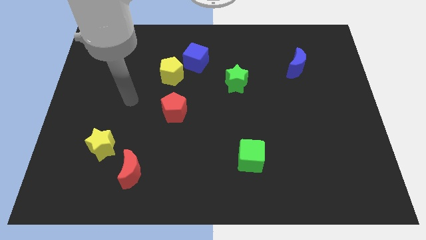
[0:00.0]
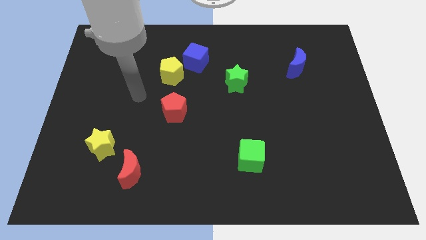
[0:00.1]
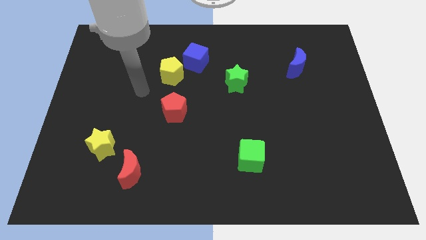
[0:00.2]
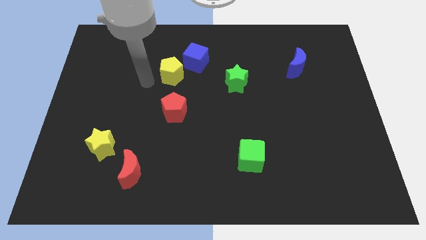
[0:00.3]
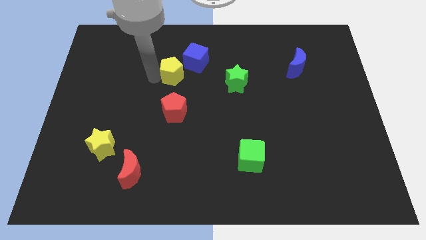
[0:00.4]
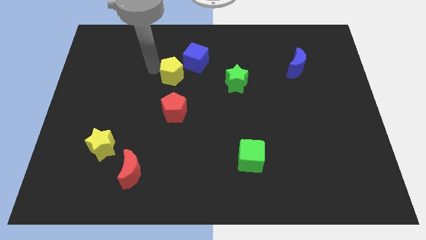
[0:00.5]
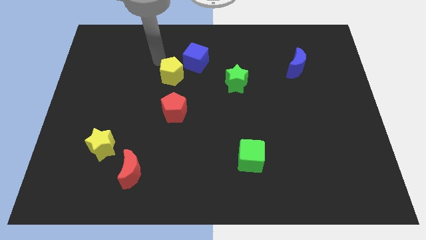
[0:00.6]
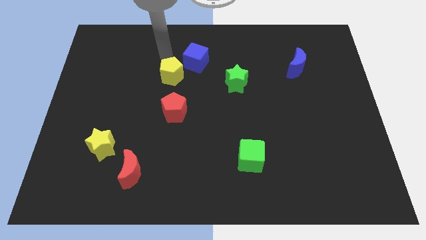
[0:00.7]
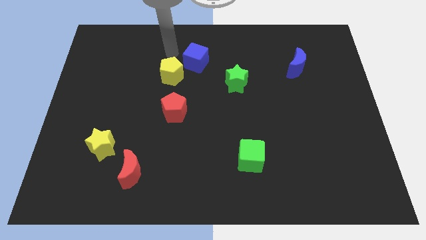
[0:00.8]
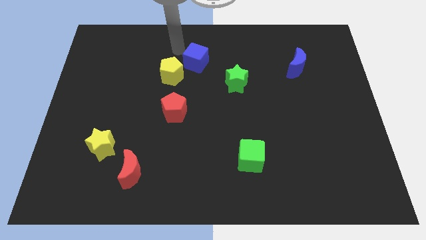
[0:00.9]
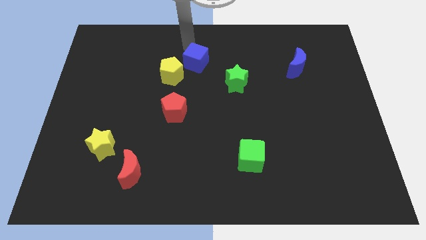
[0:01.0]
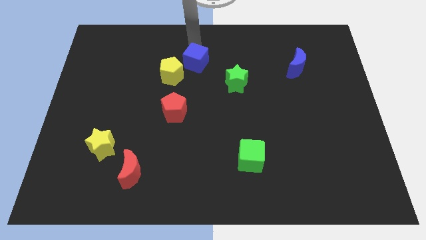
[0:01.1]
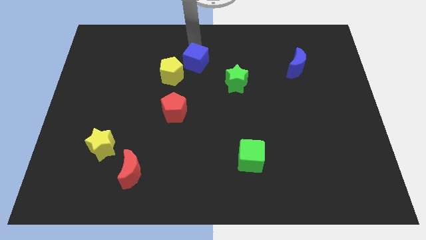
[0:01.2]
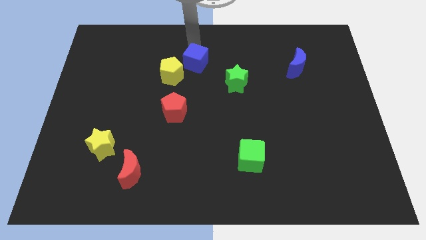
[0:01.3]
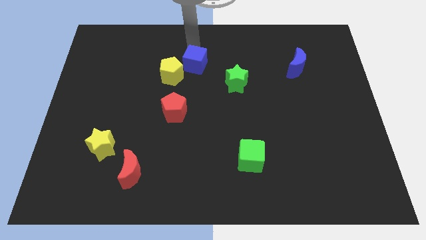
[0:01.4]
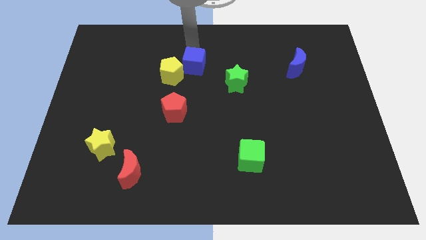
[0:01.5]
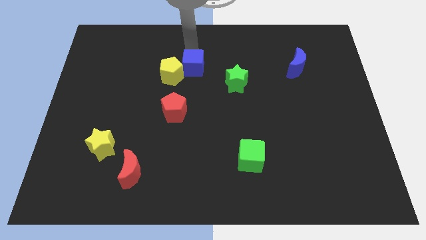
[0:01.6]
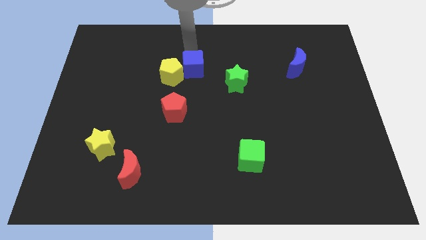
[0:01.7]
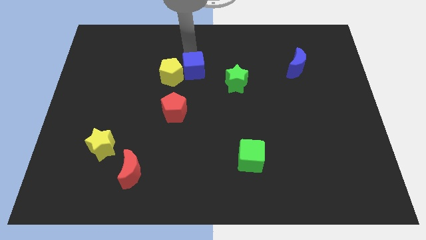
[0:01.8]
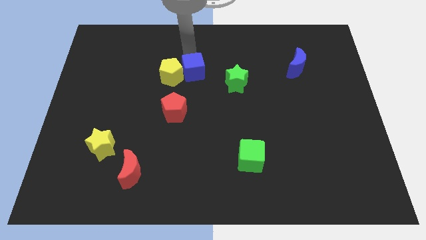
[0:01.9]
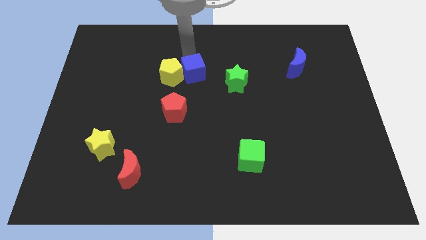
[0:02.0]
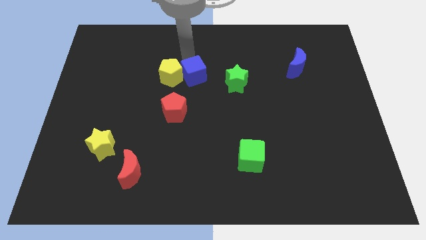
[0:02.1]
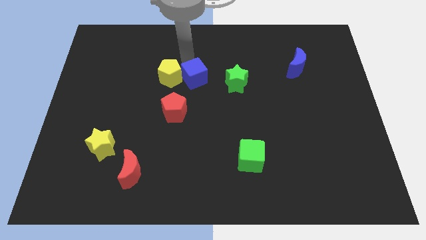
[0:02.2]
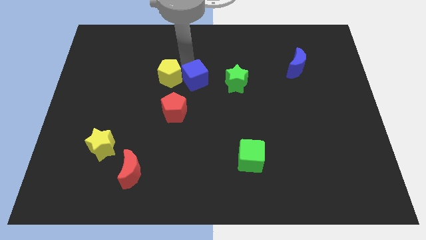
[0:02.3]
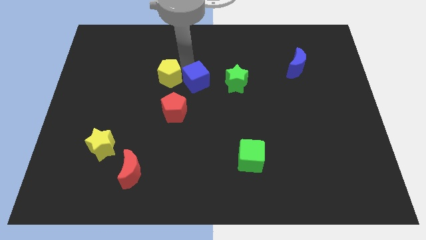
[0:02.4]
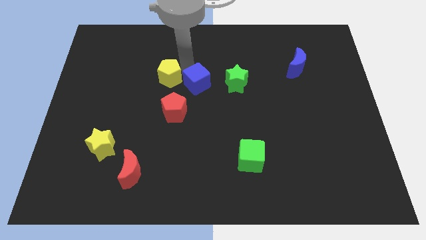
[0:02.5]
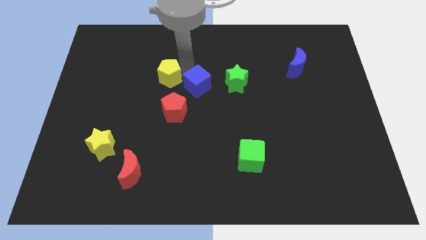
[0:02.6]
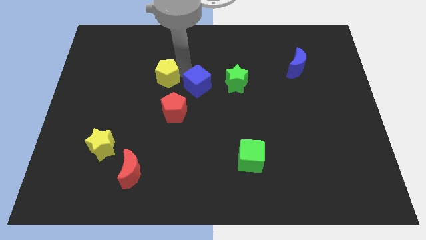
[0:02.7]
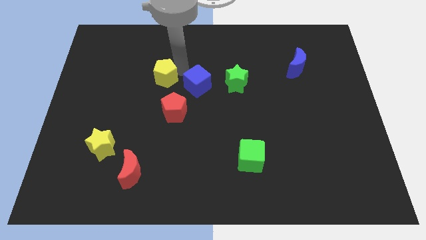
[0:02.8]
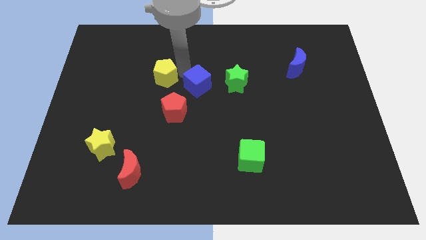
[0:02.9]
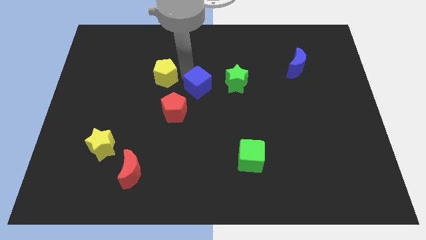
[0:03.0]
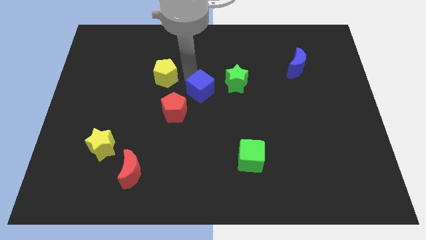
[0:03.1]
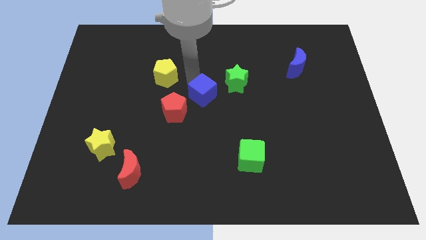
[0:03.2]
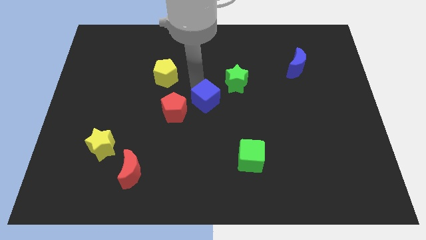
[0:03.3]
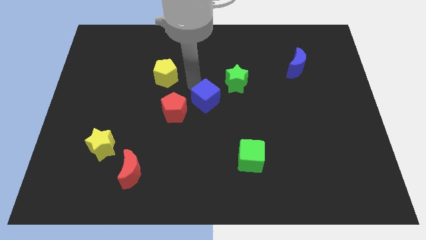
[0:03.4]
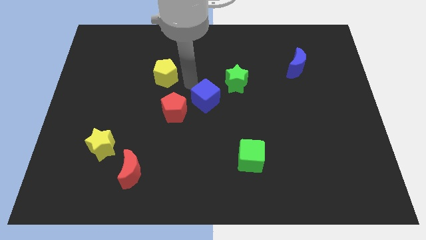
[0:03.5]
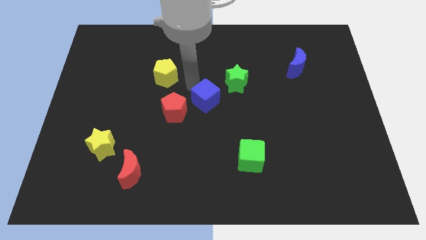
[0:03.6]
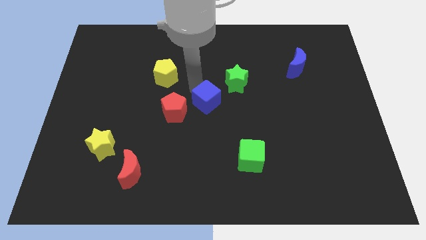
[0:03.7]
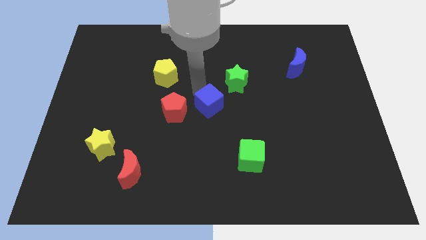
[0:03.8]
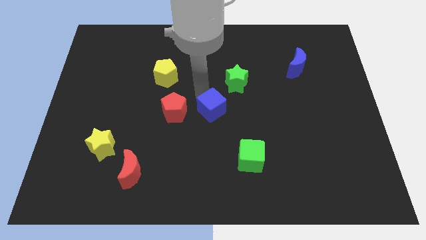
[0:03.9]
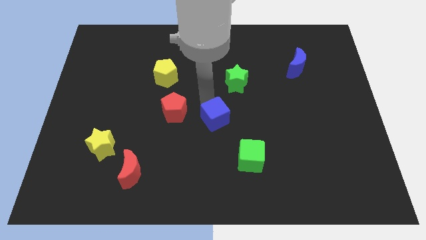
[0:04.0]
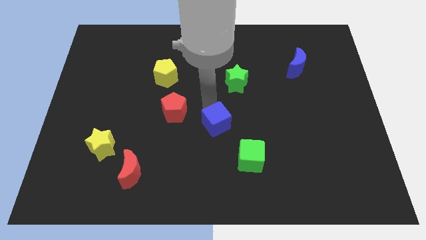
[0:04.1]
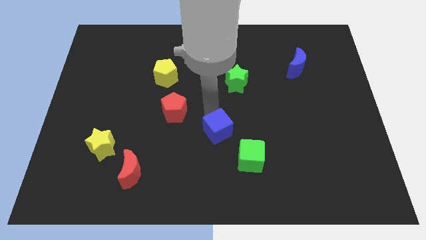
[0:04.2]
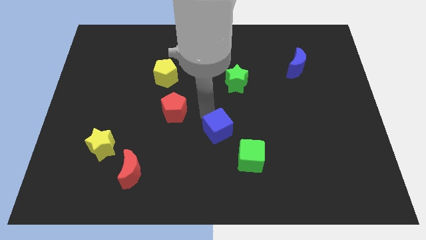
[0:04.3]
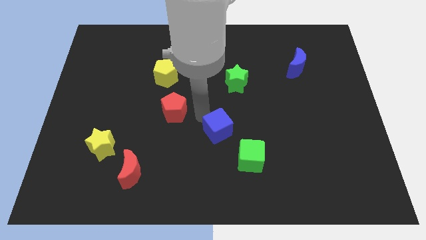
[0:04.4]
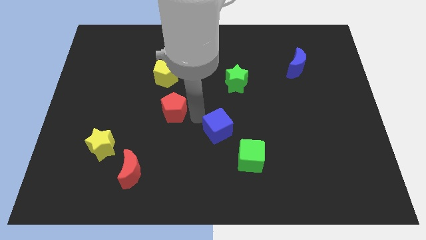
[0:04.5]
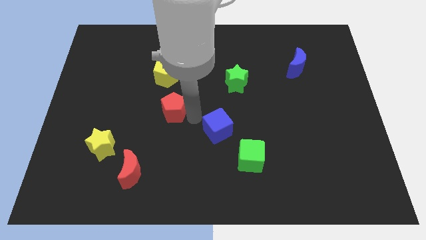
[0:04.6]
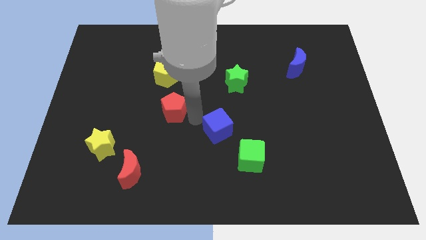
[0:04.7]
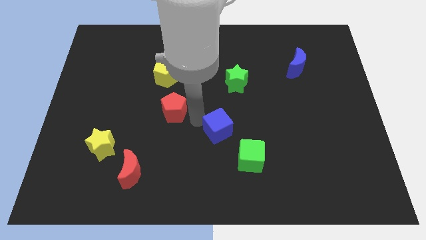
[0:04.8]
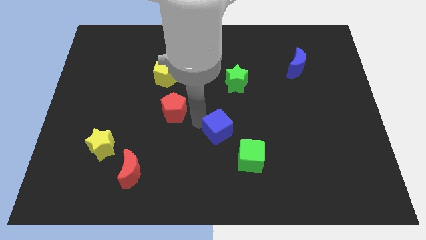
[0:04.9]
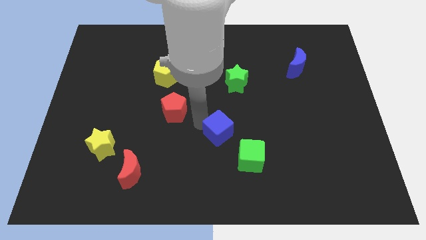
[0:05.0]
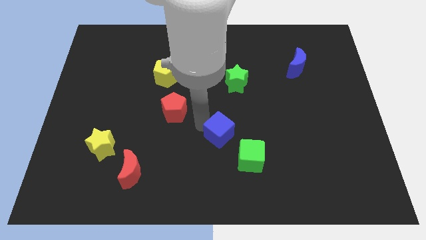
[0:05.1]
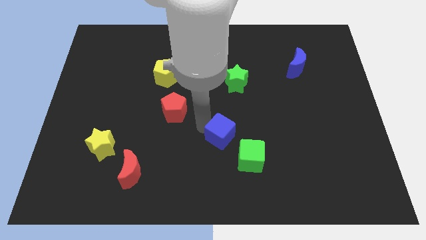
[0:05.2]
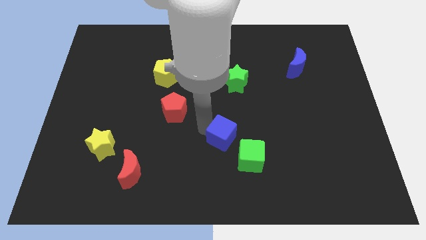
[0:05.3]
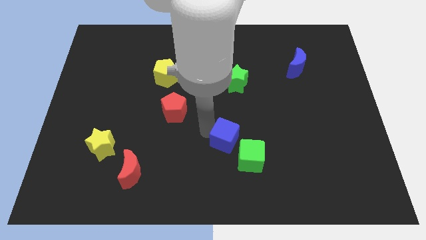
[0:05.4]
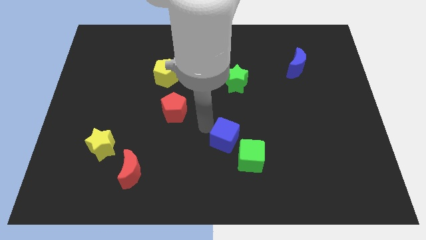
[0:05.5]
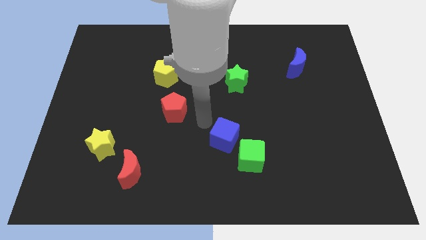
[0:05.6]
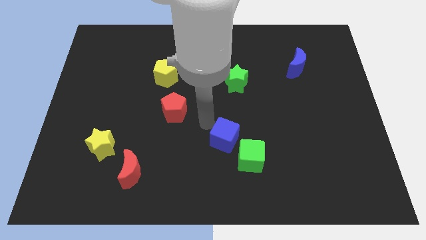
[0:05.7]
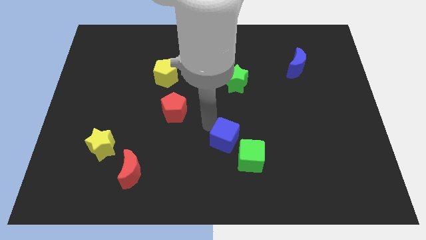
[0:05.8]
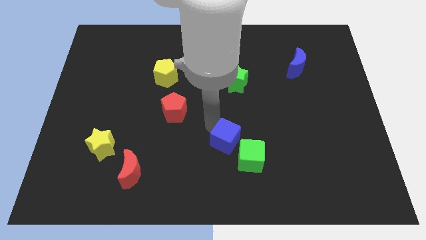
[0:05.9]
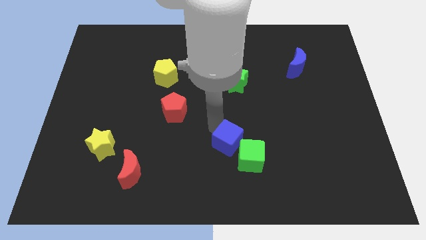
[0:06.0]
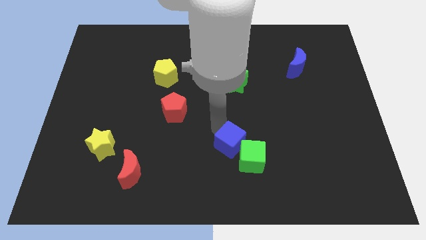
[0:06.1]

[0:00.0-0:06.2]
push the blue cube next to the green cube

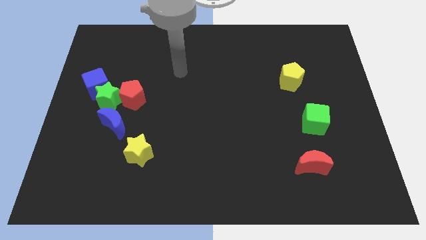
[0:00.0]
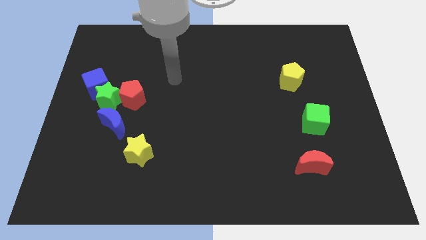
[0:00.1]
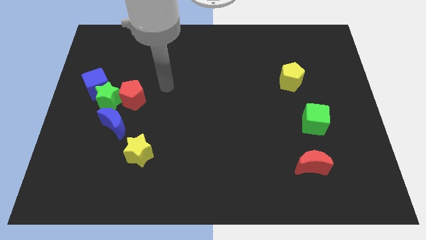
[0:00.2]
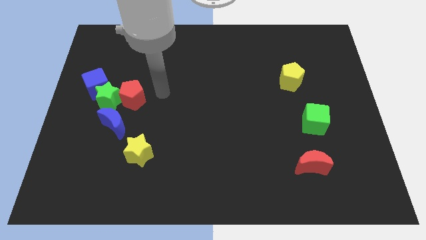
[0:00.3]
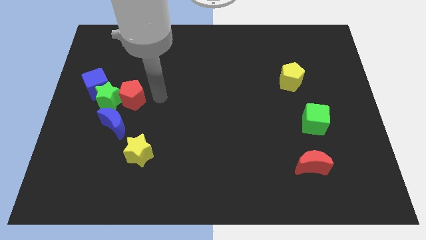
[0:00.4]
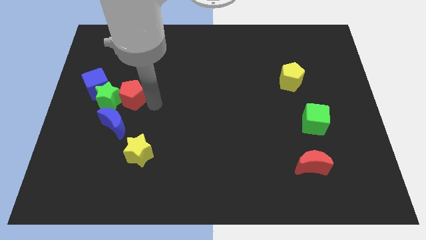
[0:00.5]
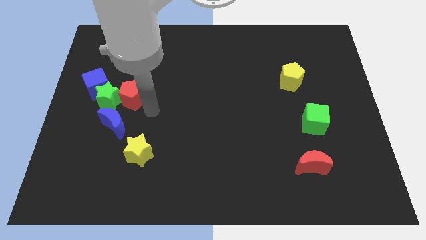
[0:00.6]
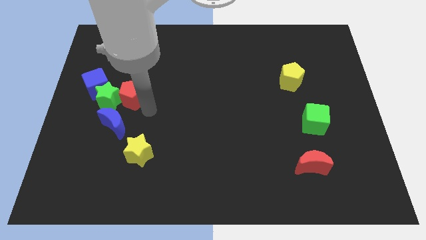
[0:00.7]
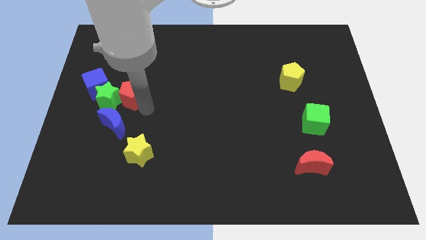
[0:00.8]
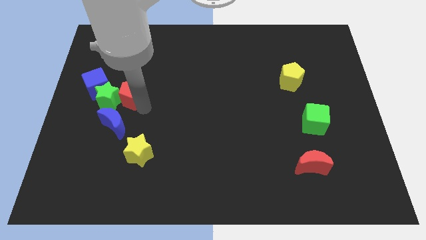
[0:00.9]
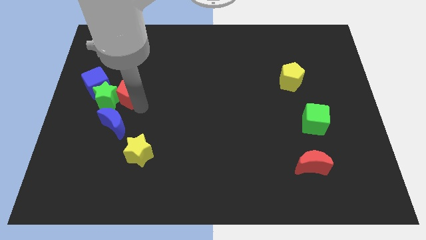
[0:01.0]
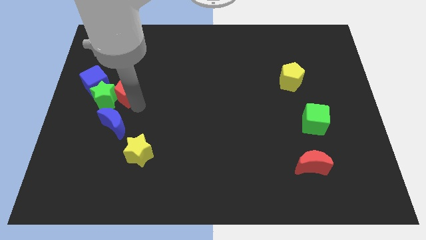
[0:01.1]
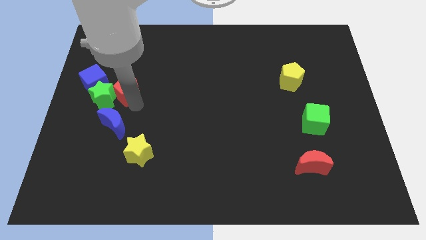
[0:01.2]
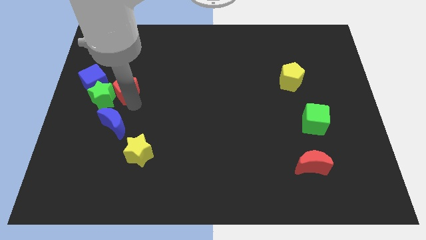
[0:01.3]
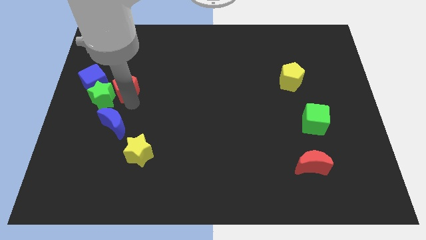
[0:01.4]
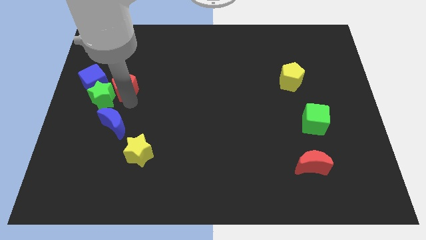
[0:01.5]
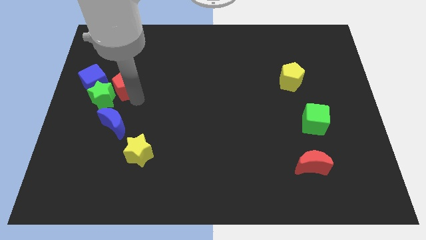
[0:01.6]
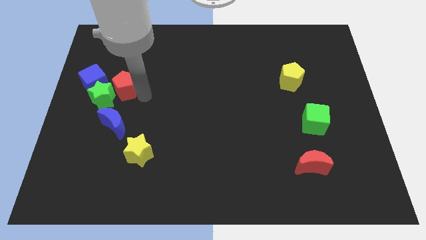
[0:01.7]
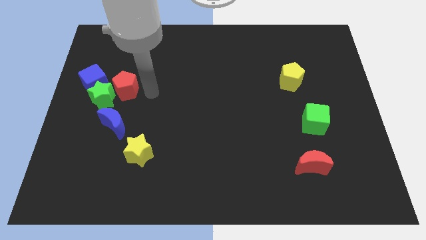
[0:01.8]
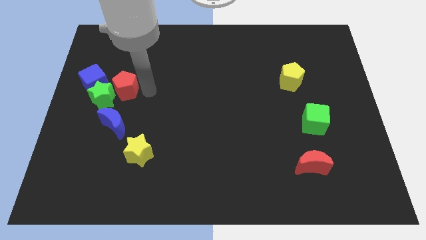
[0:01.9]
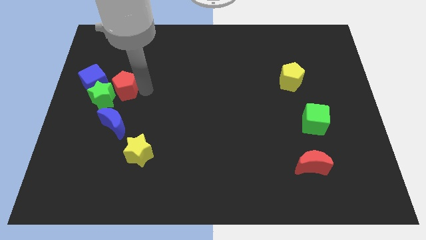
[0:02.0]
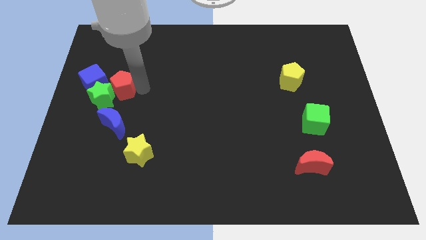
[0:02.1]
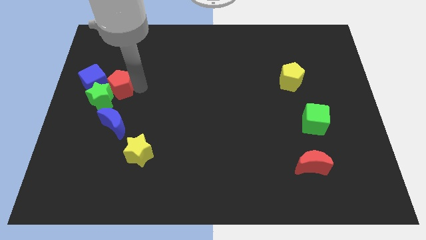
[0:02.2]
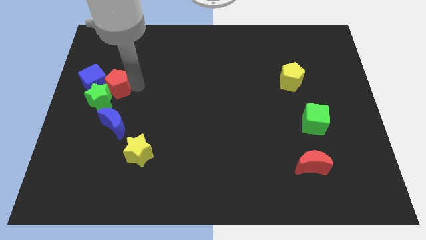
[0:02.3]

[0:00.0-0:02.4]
slide the red pentagon next to the blue cube
